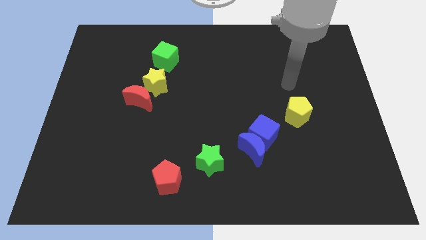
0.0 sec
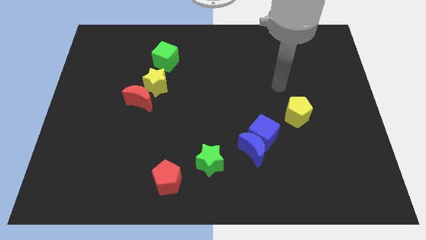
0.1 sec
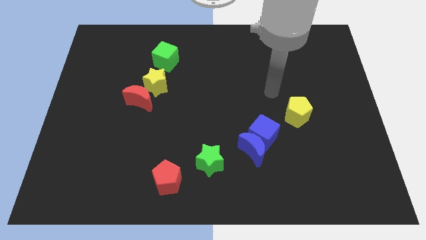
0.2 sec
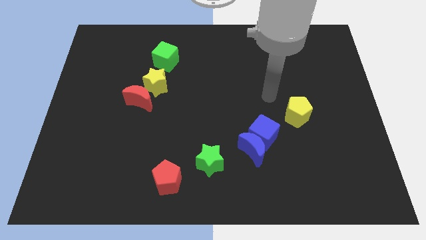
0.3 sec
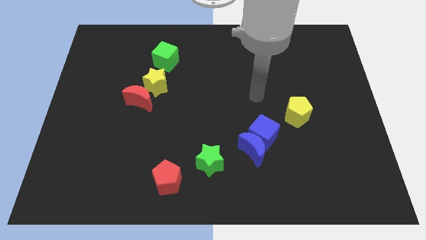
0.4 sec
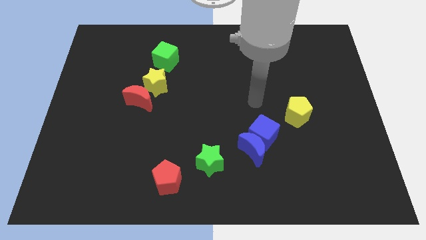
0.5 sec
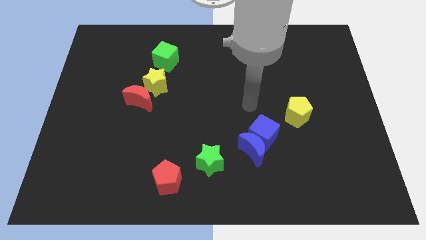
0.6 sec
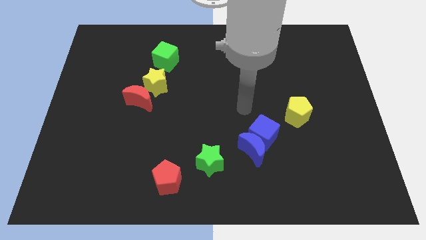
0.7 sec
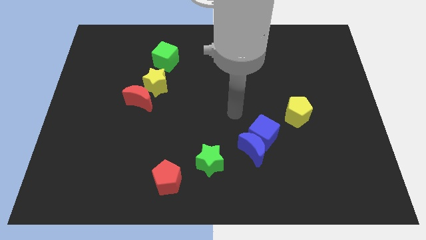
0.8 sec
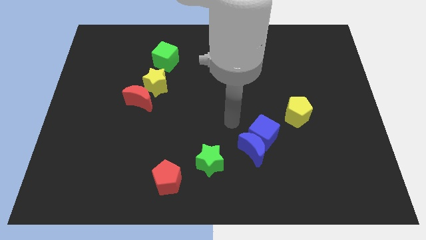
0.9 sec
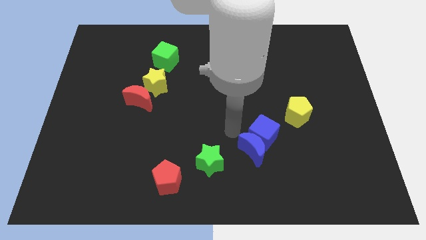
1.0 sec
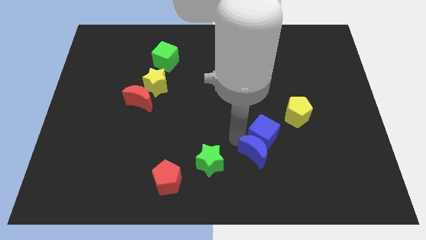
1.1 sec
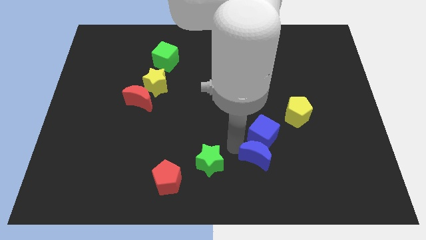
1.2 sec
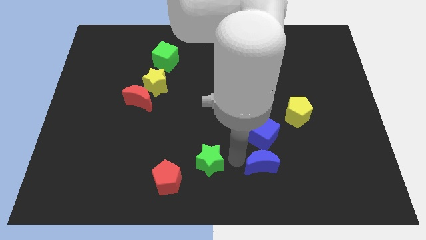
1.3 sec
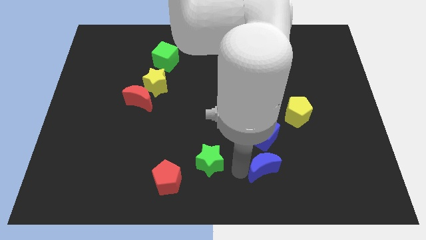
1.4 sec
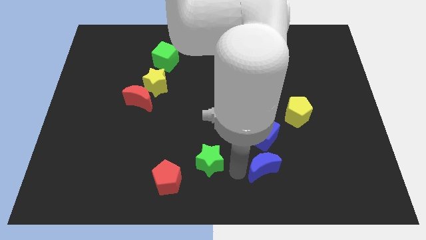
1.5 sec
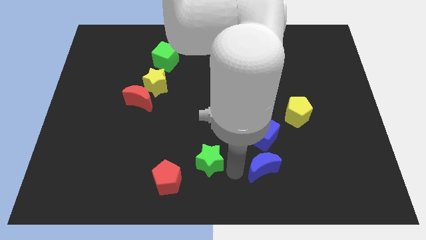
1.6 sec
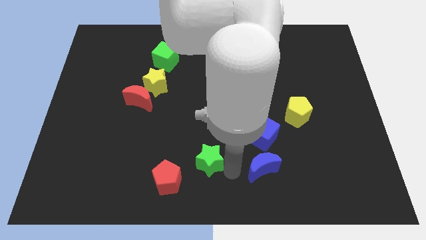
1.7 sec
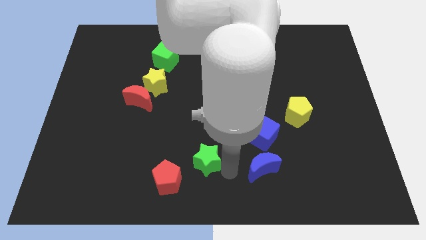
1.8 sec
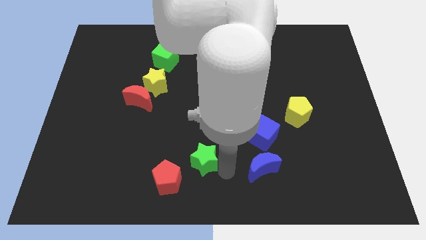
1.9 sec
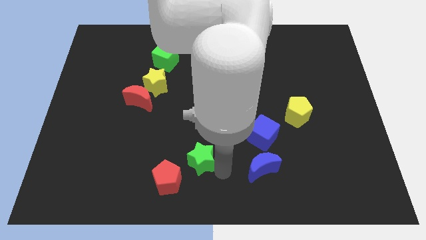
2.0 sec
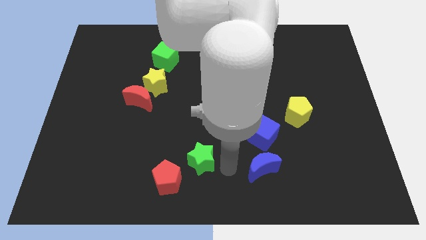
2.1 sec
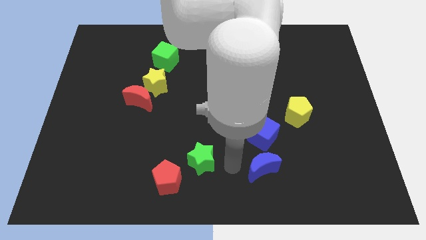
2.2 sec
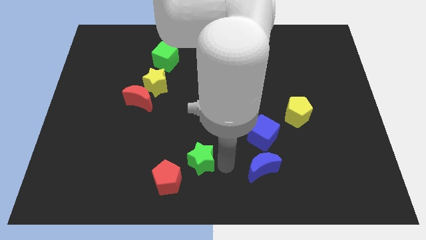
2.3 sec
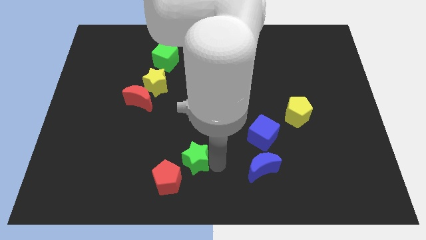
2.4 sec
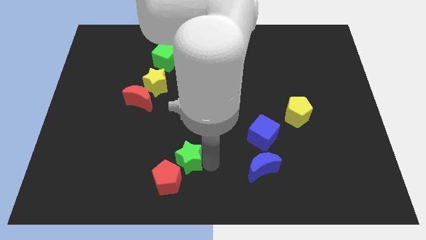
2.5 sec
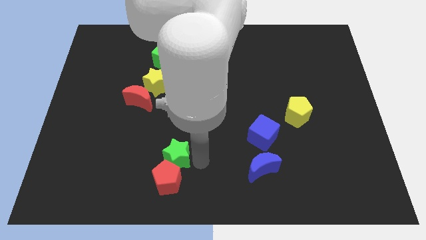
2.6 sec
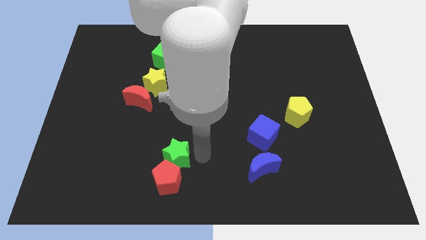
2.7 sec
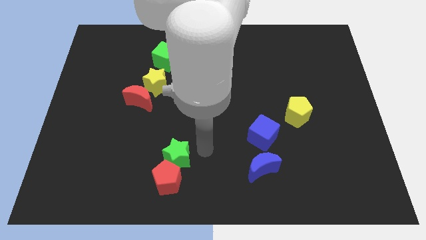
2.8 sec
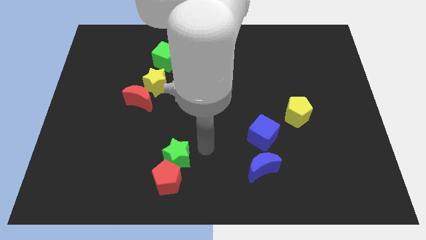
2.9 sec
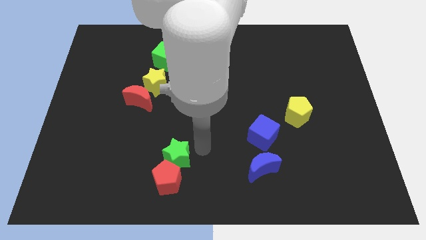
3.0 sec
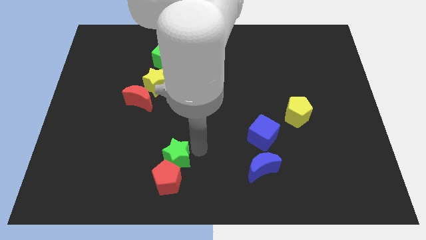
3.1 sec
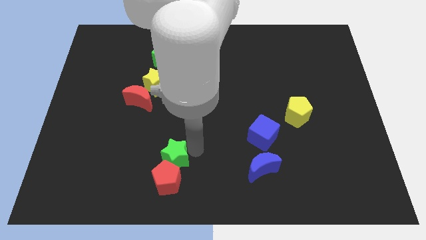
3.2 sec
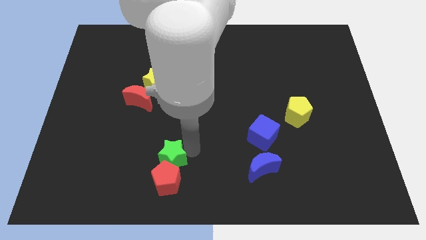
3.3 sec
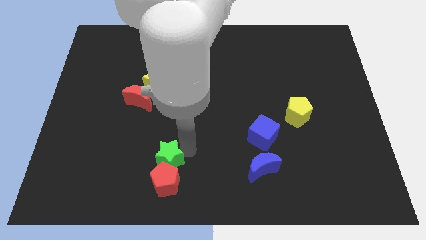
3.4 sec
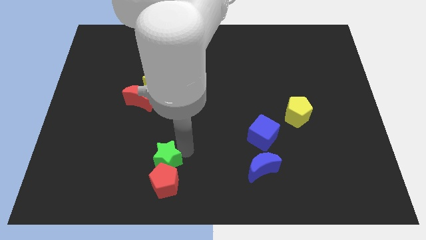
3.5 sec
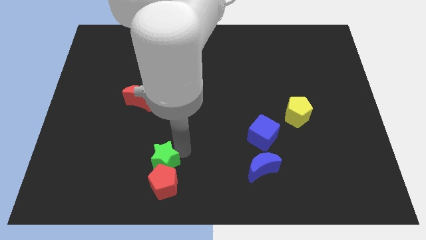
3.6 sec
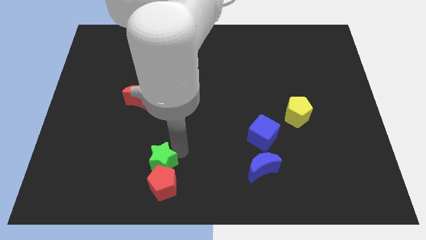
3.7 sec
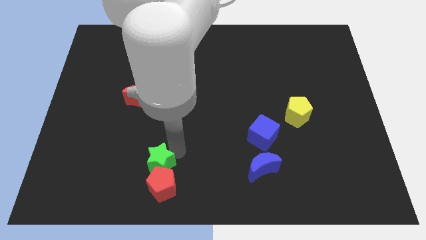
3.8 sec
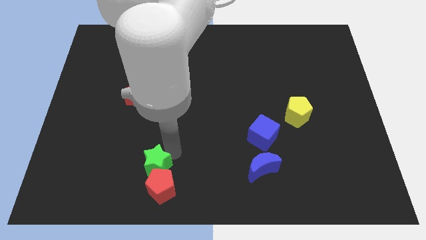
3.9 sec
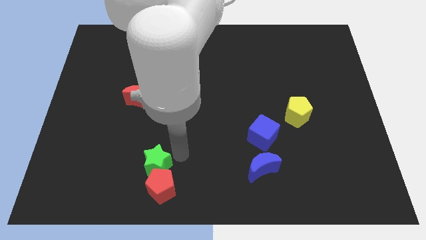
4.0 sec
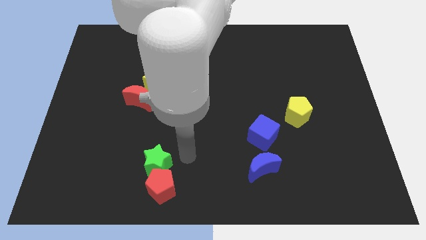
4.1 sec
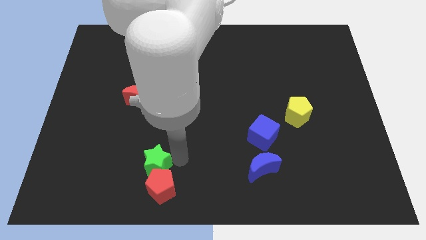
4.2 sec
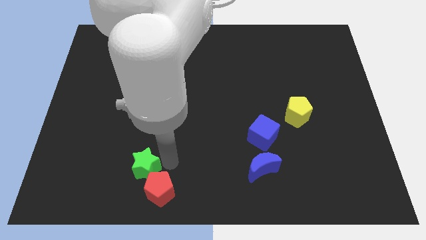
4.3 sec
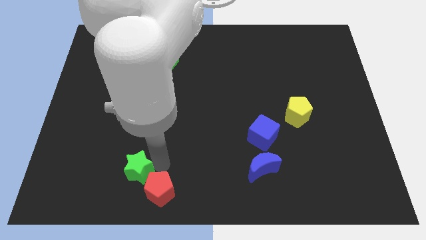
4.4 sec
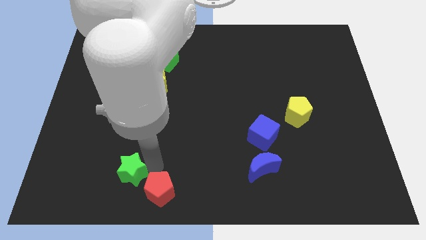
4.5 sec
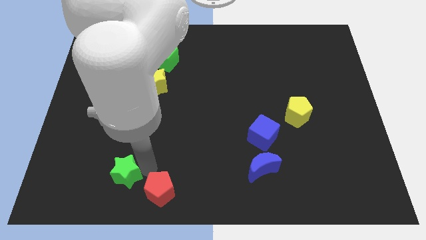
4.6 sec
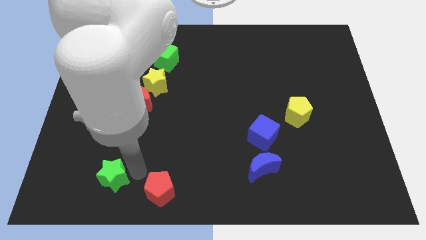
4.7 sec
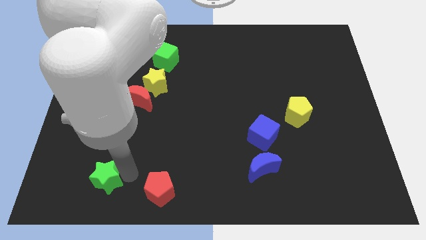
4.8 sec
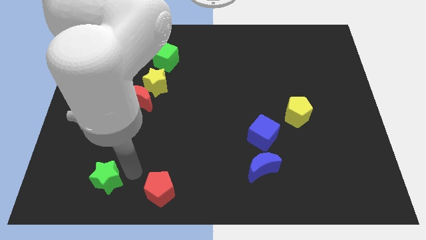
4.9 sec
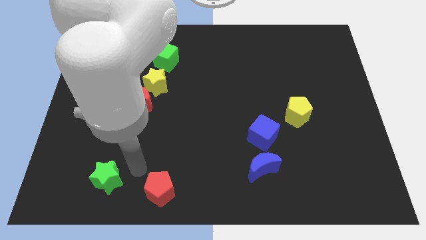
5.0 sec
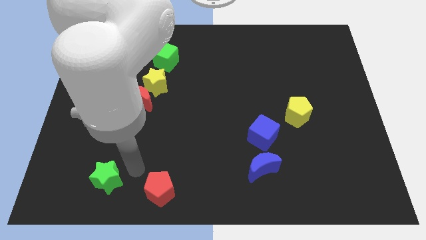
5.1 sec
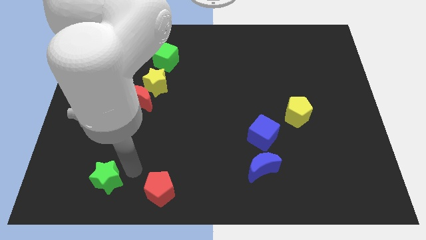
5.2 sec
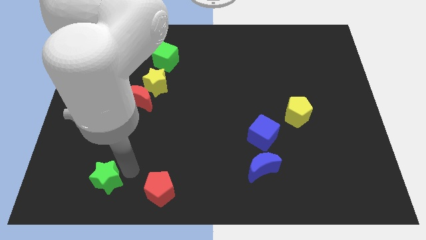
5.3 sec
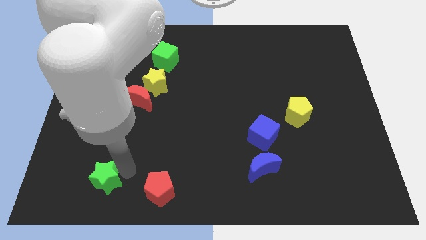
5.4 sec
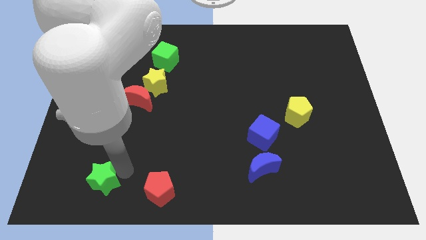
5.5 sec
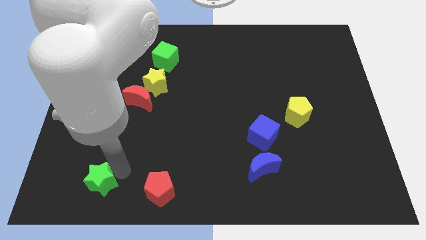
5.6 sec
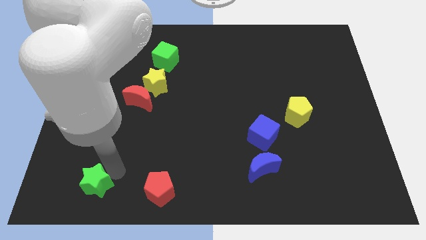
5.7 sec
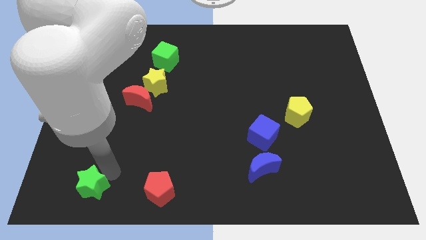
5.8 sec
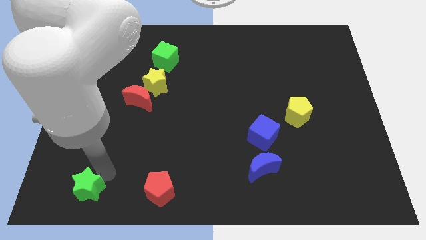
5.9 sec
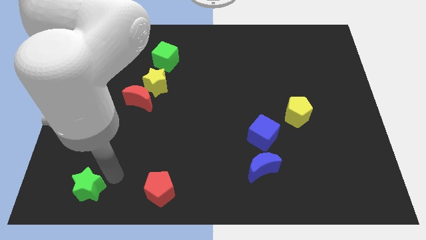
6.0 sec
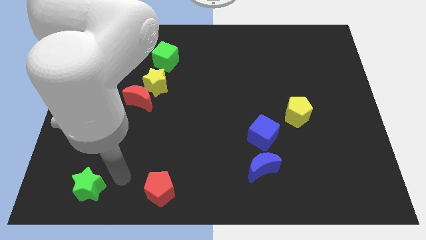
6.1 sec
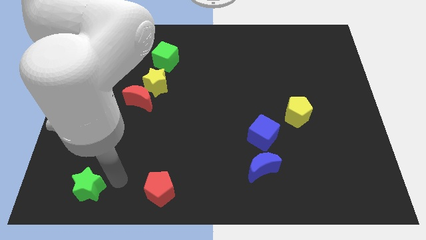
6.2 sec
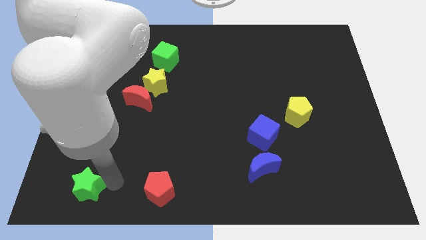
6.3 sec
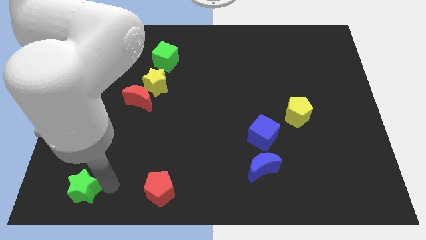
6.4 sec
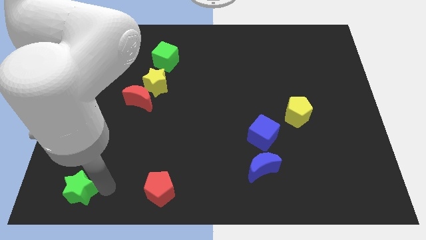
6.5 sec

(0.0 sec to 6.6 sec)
move the green star to the lower left corner

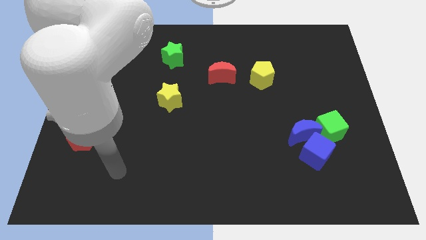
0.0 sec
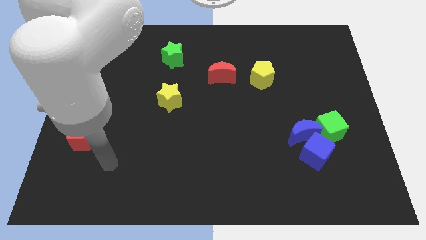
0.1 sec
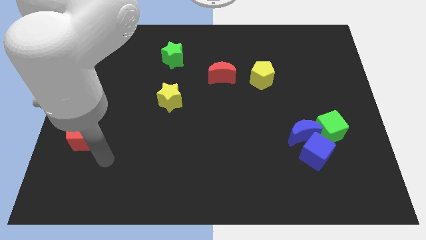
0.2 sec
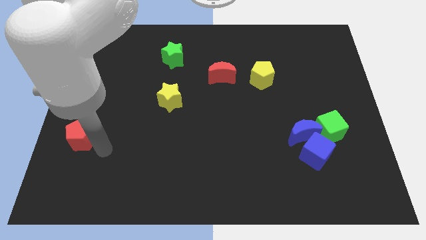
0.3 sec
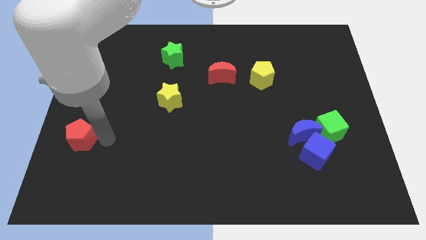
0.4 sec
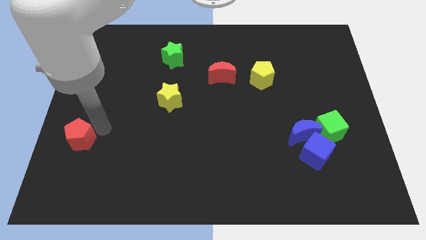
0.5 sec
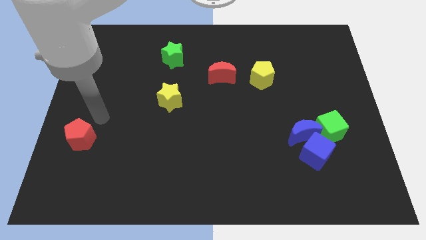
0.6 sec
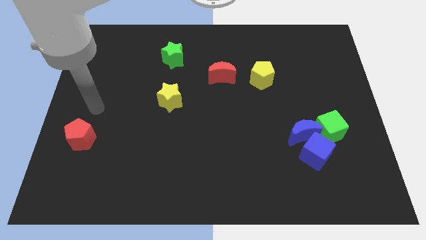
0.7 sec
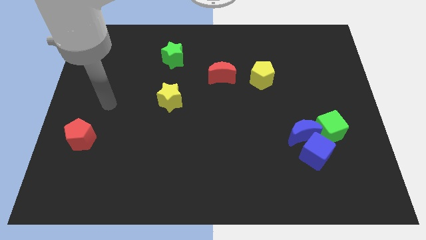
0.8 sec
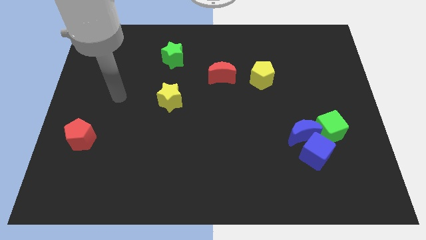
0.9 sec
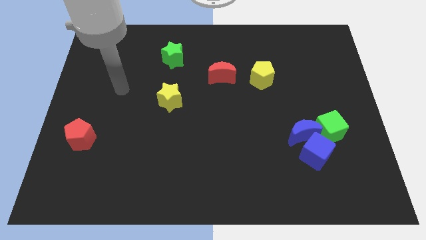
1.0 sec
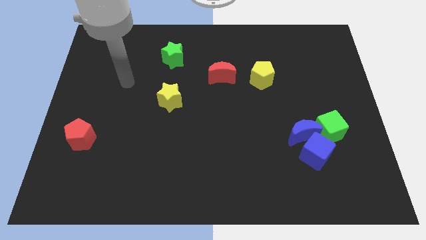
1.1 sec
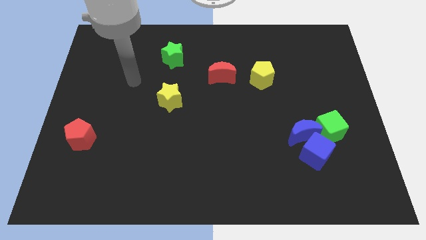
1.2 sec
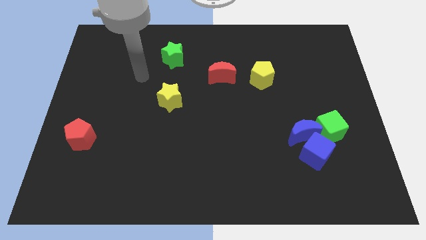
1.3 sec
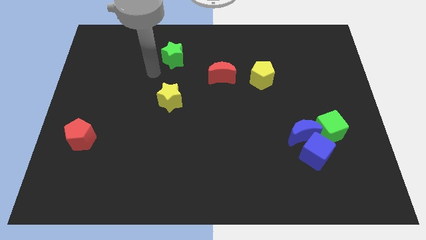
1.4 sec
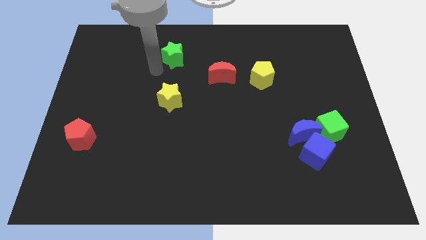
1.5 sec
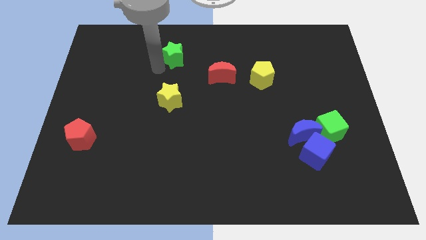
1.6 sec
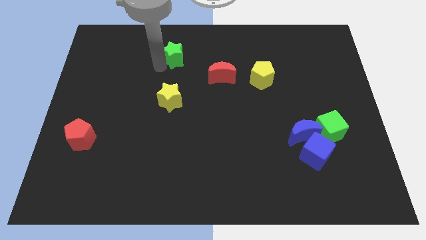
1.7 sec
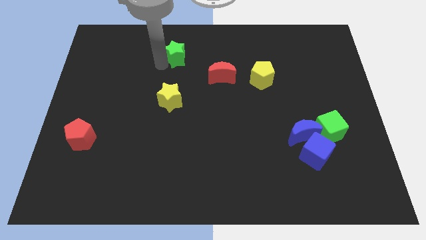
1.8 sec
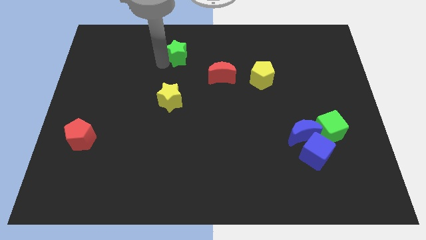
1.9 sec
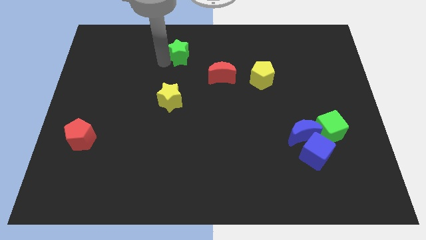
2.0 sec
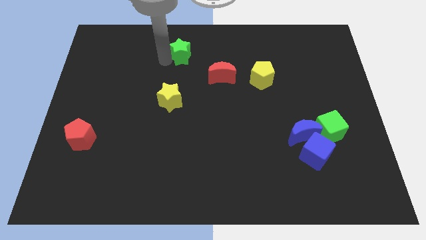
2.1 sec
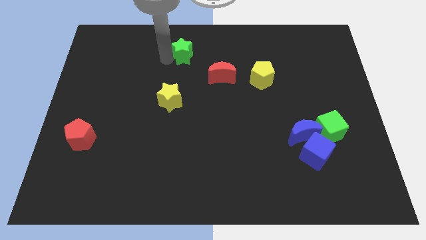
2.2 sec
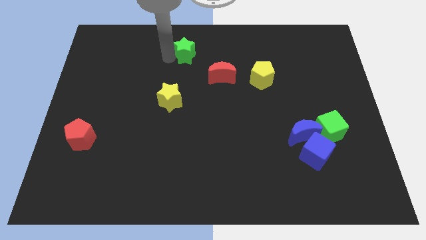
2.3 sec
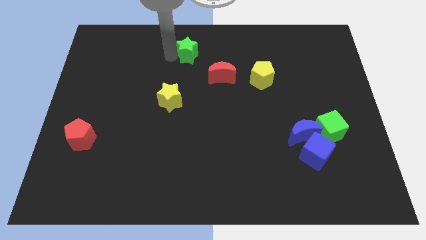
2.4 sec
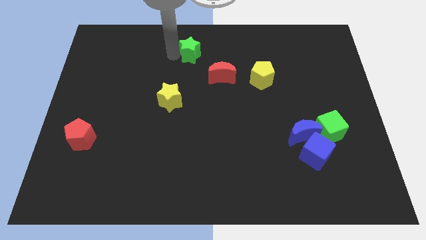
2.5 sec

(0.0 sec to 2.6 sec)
put the green star to the top side
